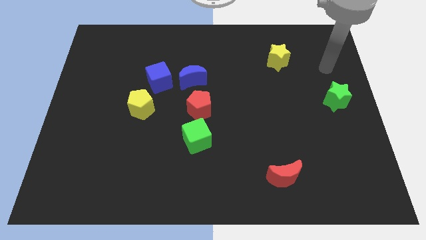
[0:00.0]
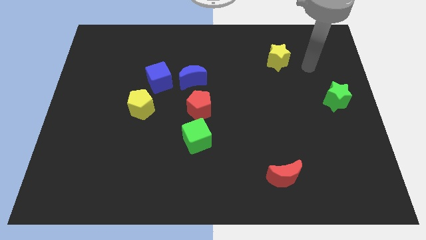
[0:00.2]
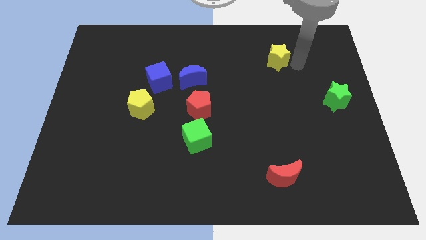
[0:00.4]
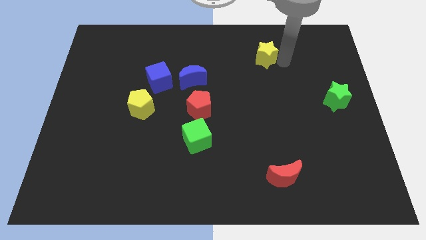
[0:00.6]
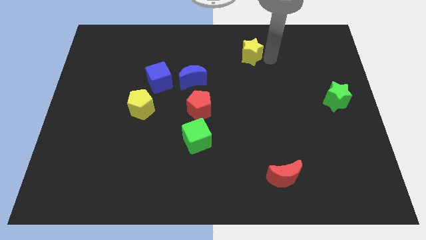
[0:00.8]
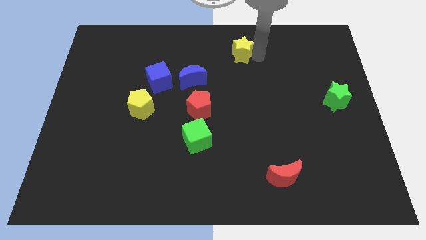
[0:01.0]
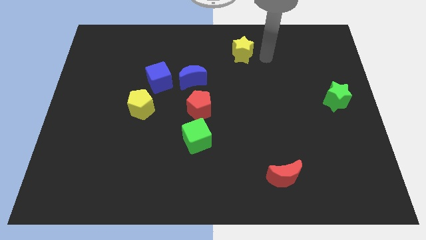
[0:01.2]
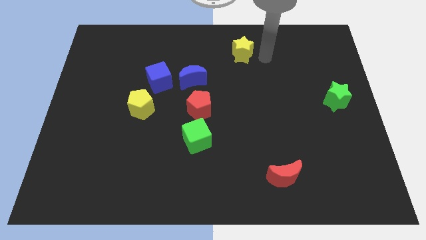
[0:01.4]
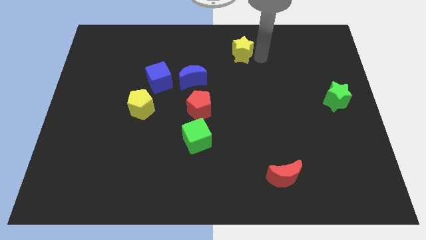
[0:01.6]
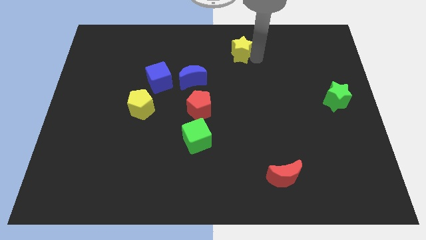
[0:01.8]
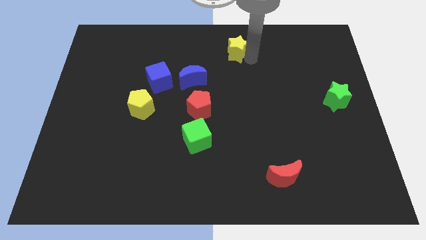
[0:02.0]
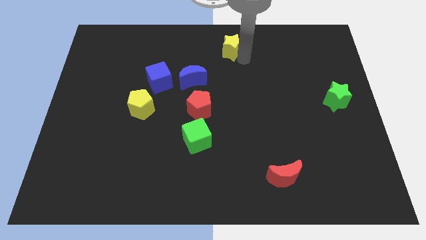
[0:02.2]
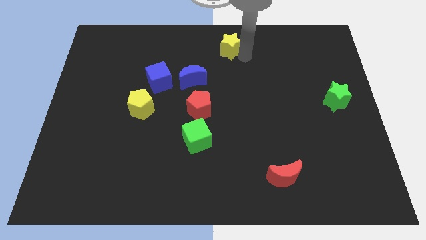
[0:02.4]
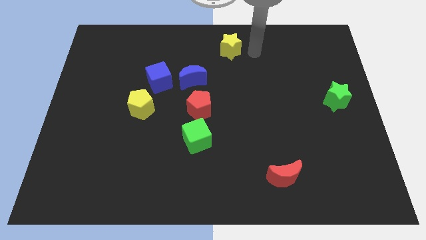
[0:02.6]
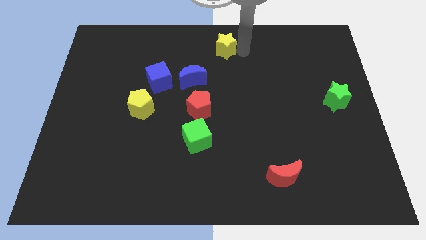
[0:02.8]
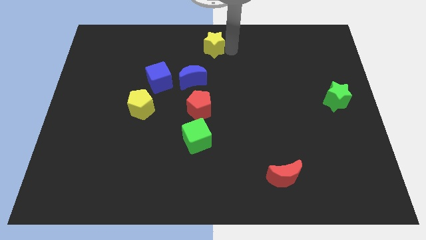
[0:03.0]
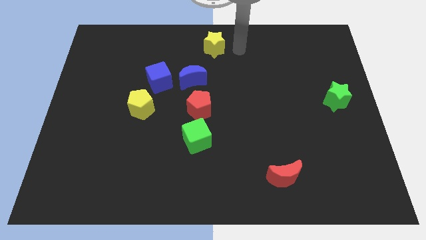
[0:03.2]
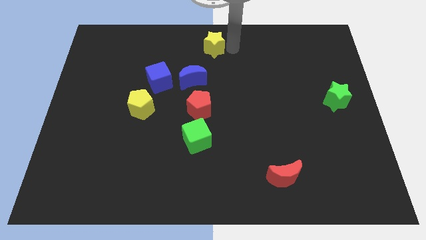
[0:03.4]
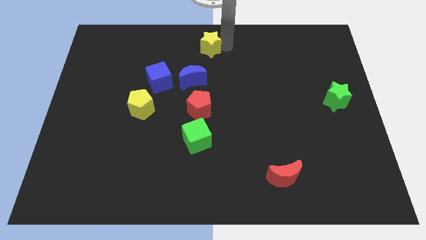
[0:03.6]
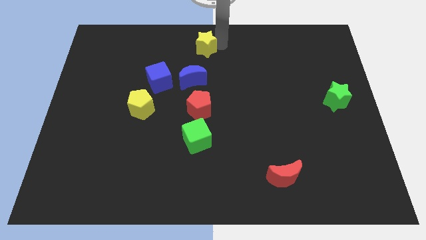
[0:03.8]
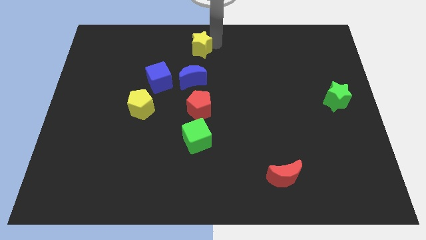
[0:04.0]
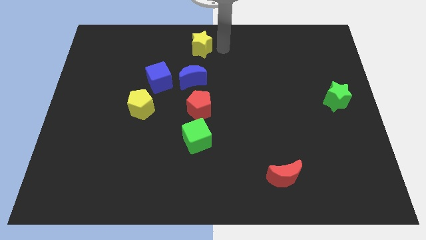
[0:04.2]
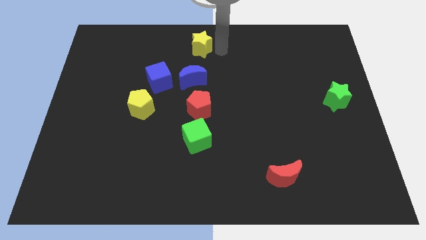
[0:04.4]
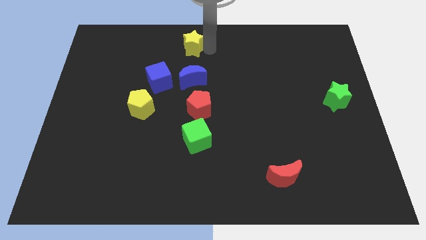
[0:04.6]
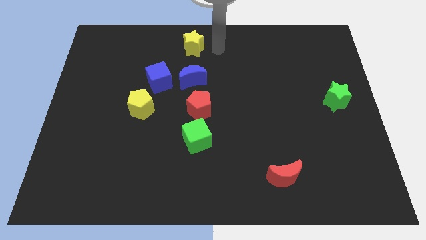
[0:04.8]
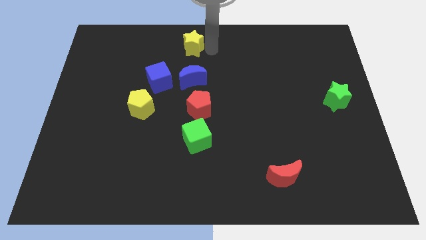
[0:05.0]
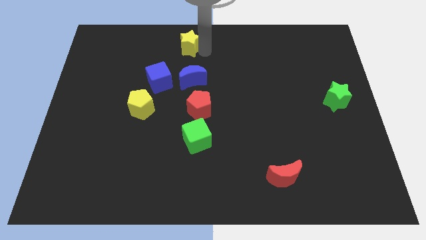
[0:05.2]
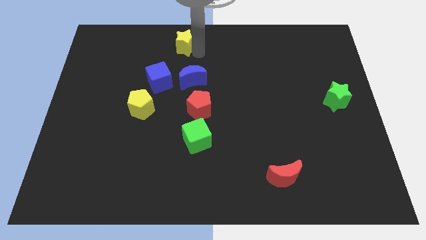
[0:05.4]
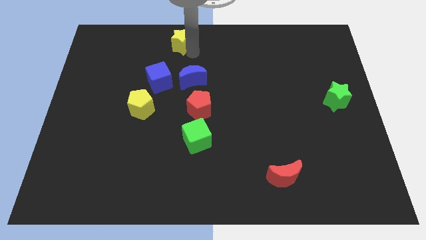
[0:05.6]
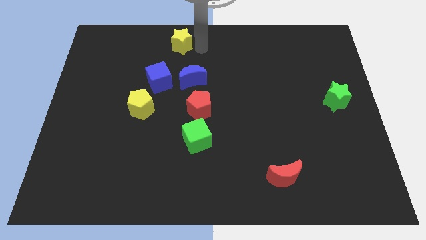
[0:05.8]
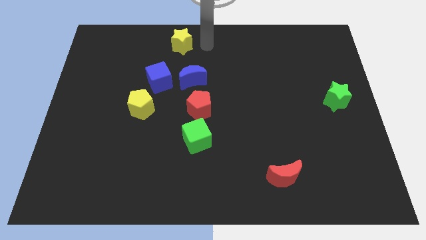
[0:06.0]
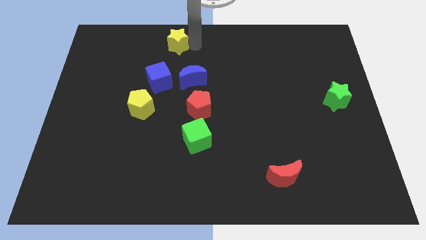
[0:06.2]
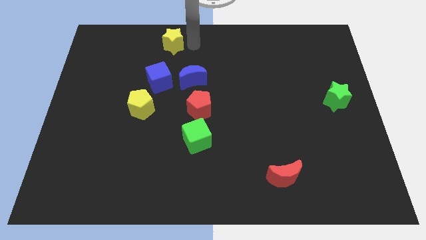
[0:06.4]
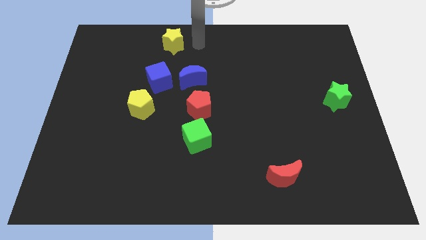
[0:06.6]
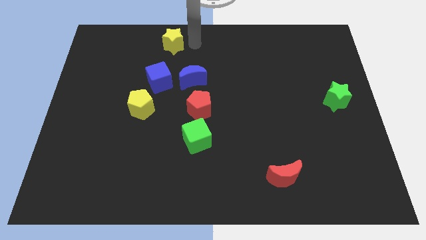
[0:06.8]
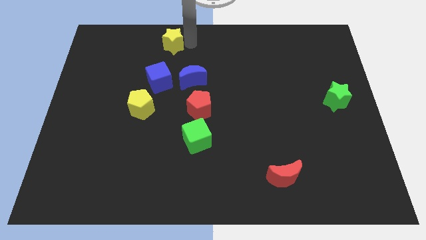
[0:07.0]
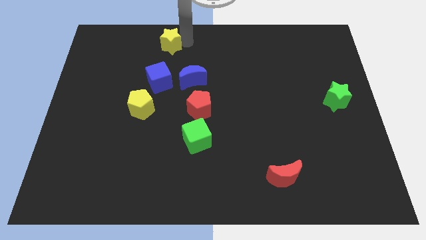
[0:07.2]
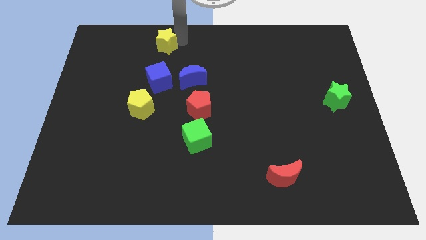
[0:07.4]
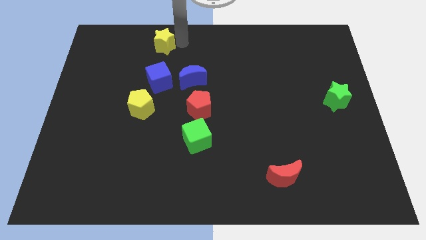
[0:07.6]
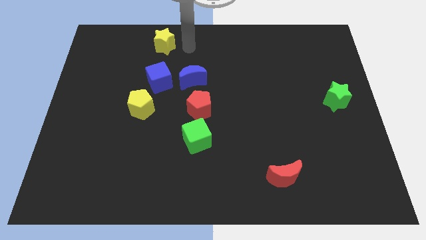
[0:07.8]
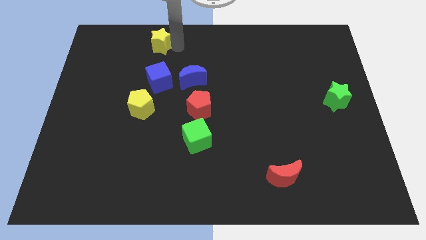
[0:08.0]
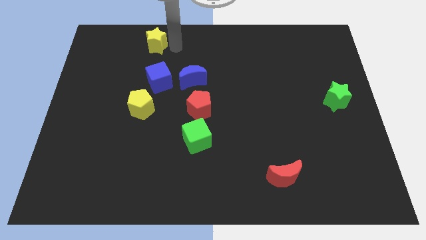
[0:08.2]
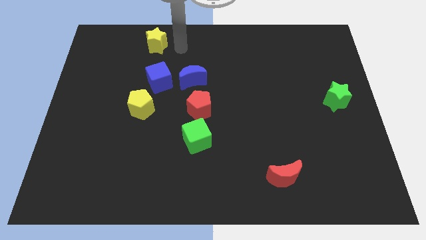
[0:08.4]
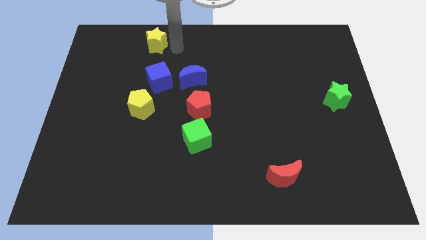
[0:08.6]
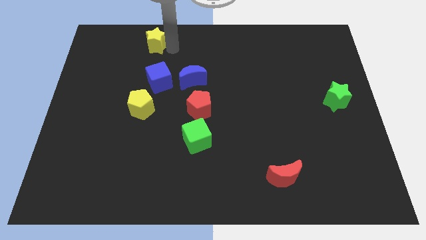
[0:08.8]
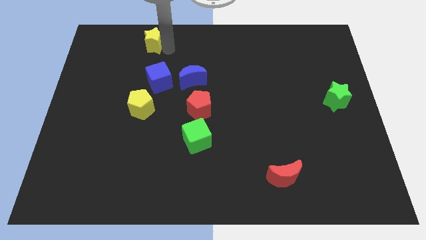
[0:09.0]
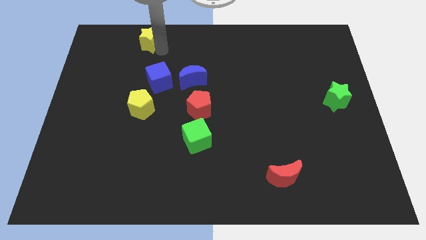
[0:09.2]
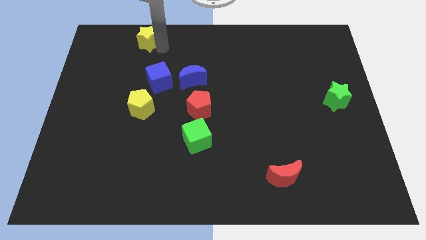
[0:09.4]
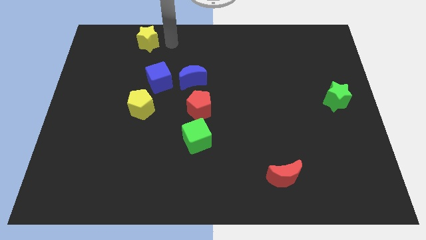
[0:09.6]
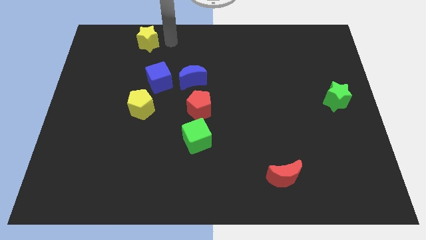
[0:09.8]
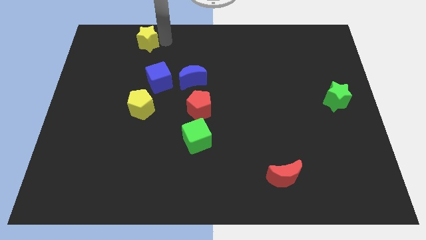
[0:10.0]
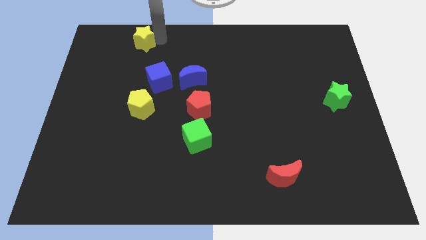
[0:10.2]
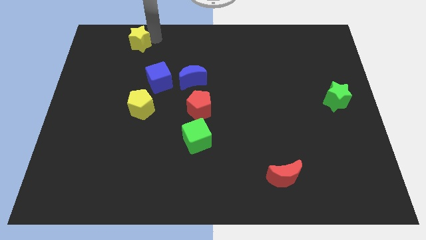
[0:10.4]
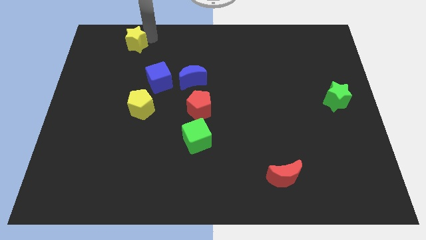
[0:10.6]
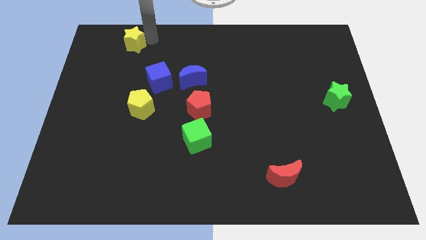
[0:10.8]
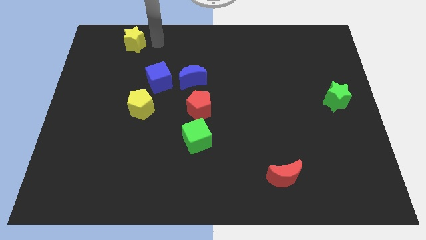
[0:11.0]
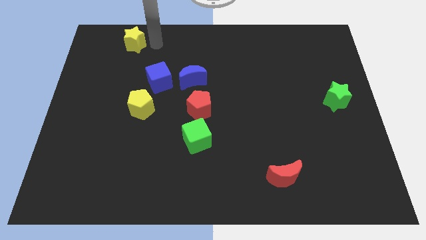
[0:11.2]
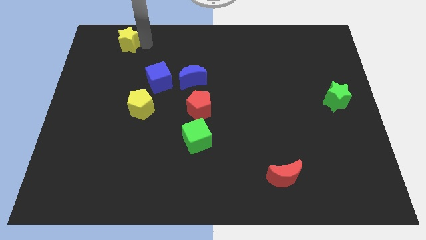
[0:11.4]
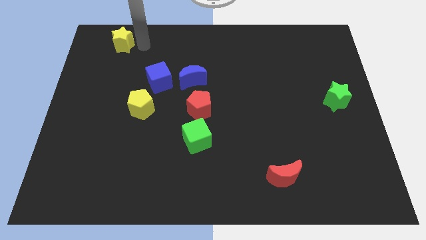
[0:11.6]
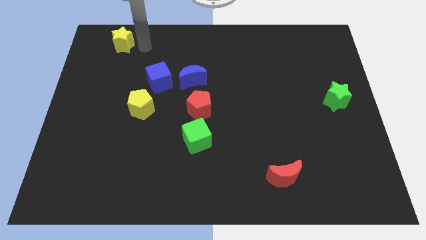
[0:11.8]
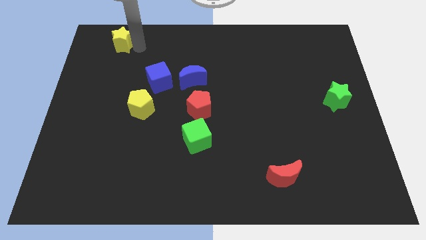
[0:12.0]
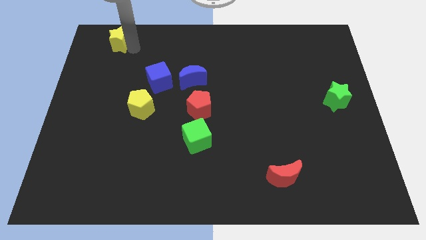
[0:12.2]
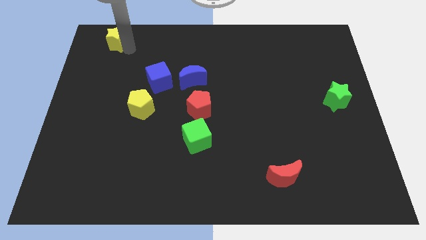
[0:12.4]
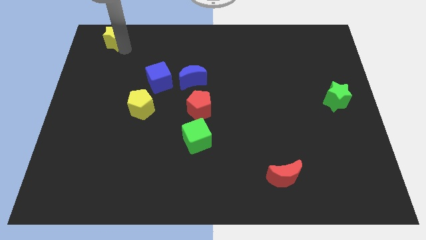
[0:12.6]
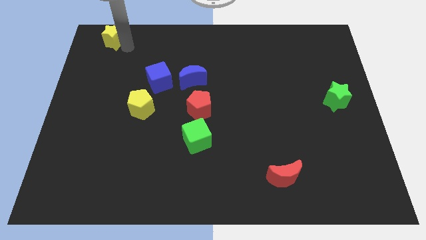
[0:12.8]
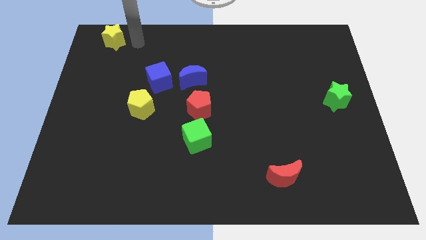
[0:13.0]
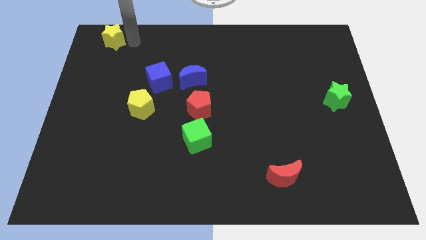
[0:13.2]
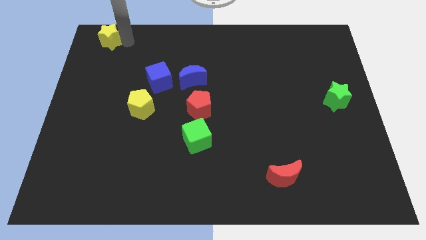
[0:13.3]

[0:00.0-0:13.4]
put the yellow star to the top left
